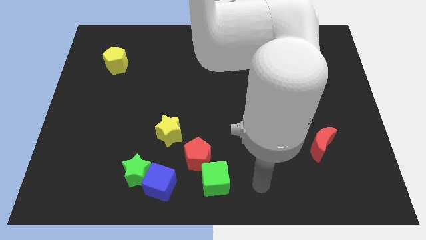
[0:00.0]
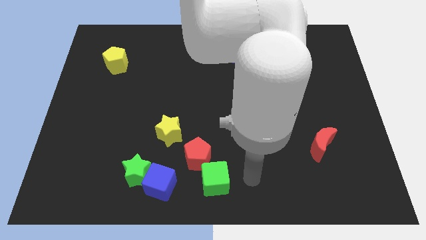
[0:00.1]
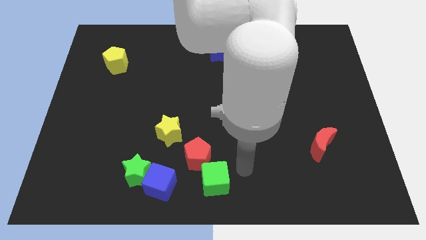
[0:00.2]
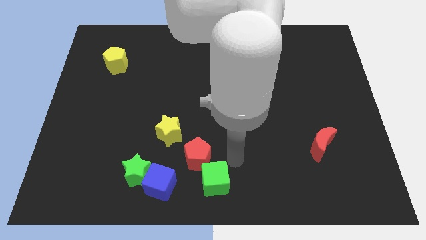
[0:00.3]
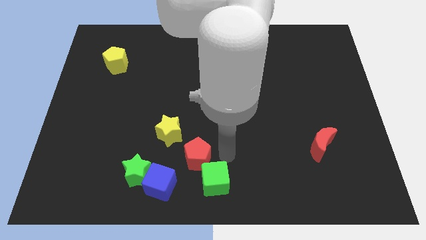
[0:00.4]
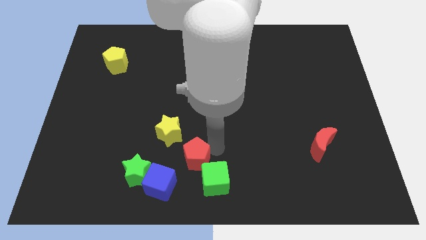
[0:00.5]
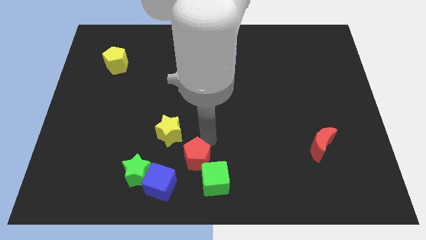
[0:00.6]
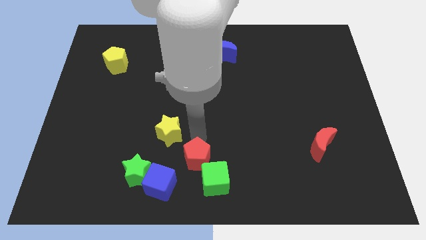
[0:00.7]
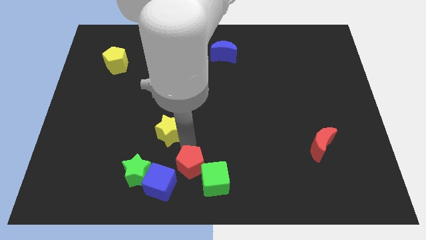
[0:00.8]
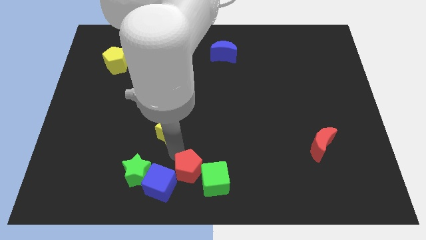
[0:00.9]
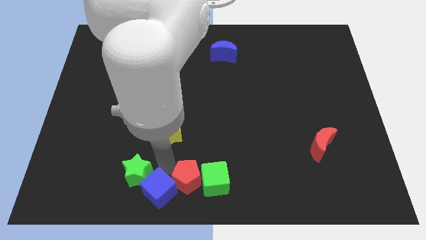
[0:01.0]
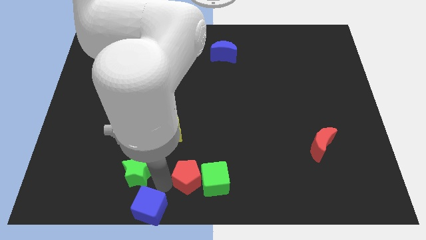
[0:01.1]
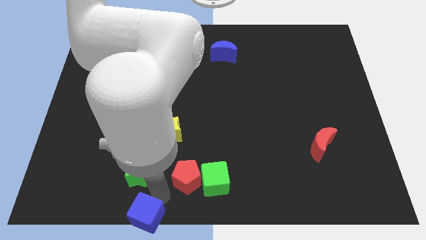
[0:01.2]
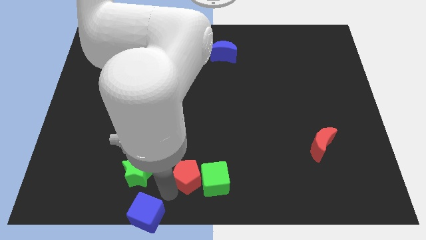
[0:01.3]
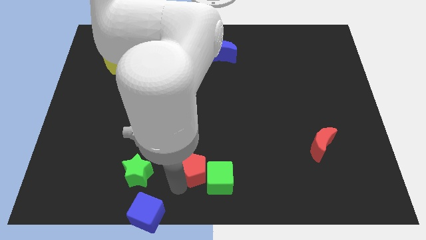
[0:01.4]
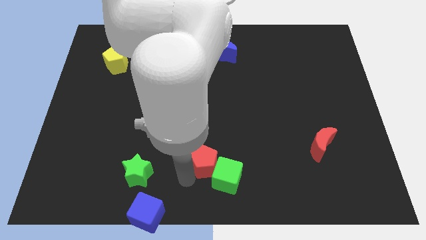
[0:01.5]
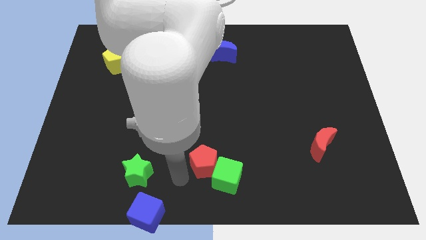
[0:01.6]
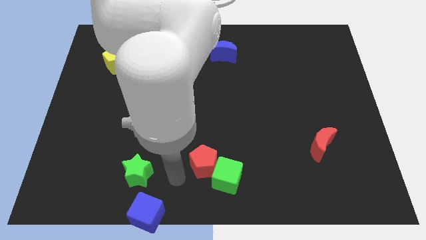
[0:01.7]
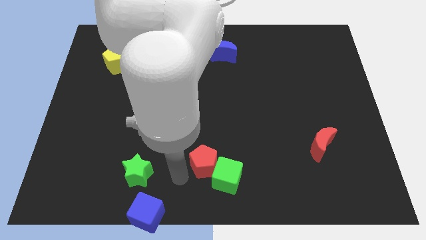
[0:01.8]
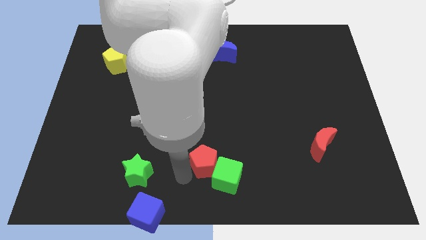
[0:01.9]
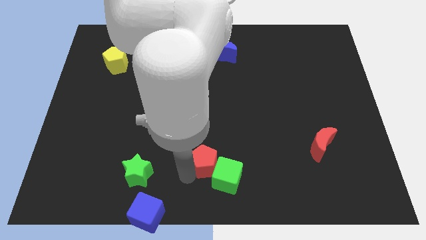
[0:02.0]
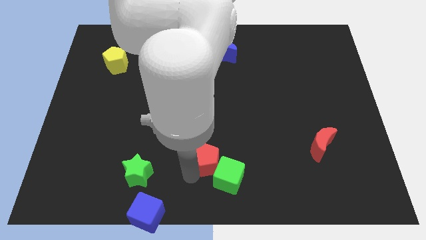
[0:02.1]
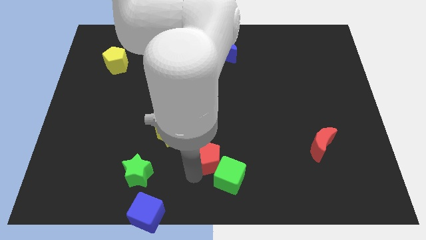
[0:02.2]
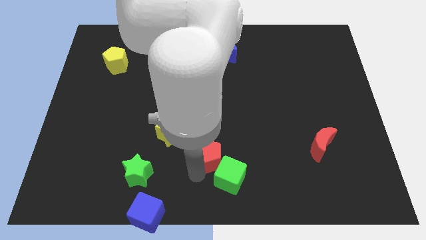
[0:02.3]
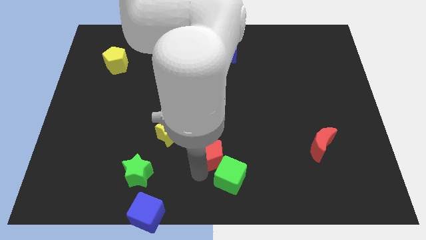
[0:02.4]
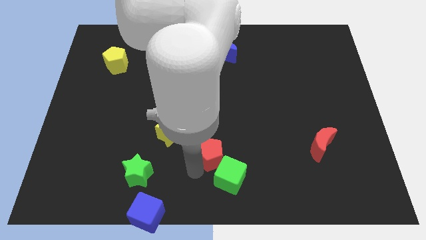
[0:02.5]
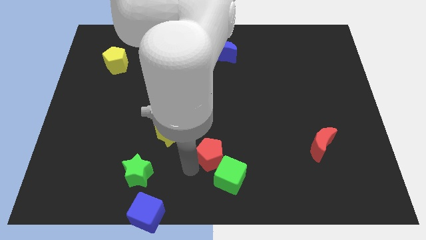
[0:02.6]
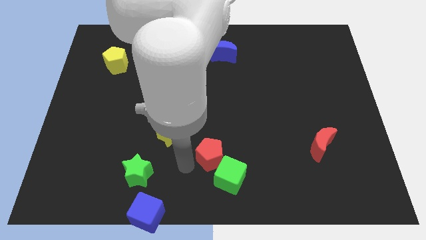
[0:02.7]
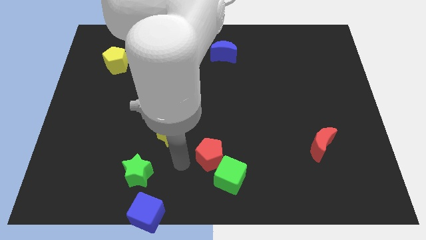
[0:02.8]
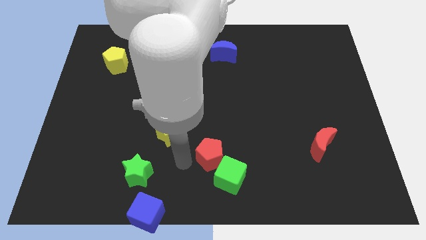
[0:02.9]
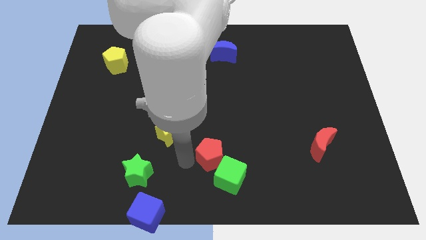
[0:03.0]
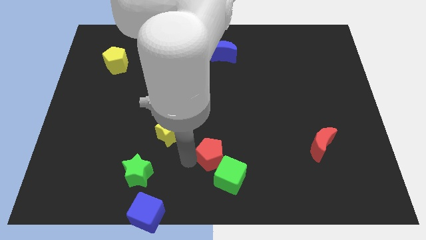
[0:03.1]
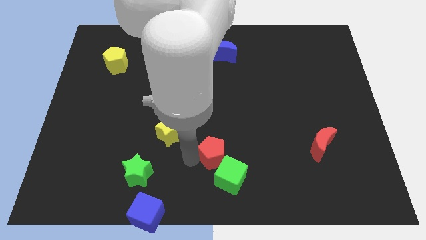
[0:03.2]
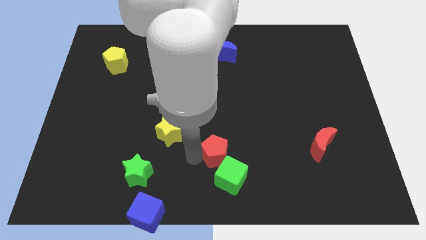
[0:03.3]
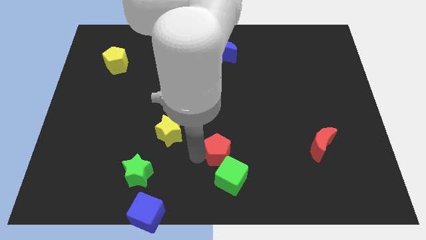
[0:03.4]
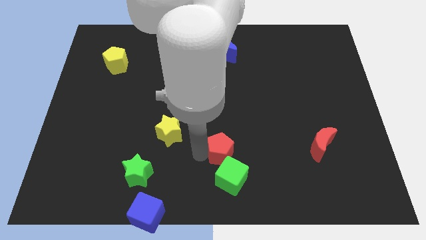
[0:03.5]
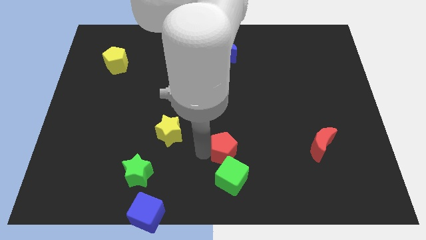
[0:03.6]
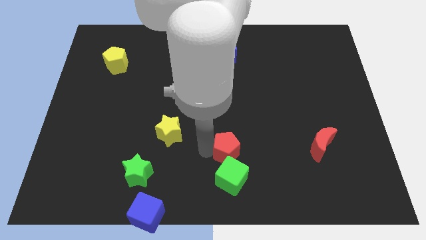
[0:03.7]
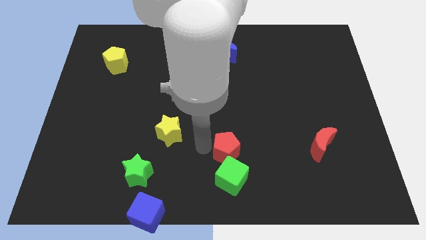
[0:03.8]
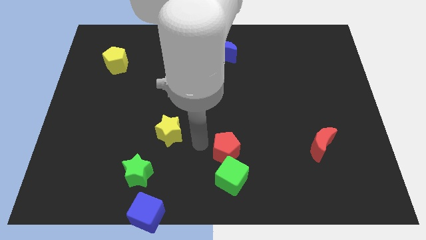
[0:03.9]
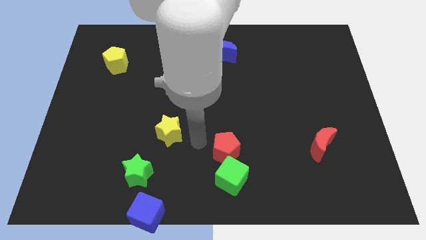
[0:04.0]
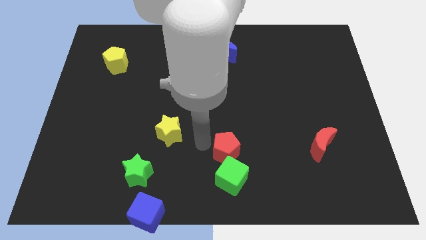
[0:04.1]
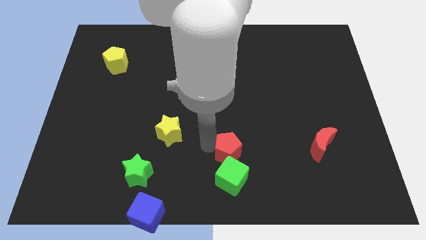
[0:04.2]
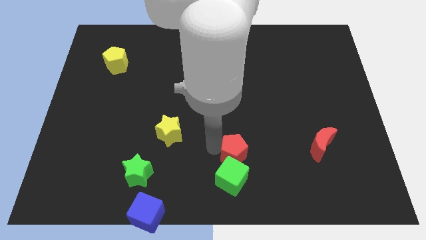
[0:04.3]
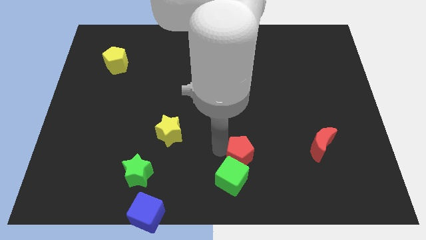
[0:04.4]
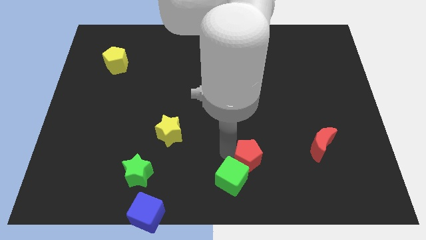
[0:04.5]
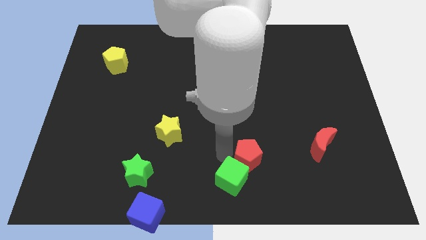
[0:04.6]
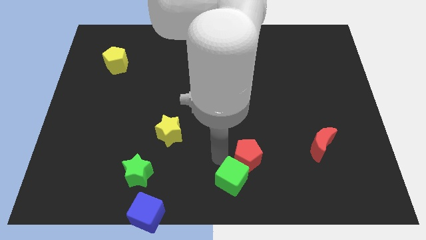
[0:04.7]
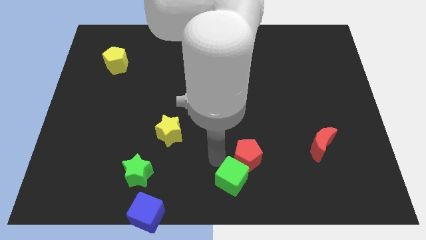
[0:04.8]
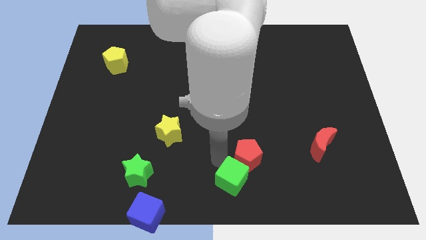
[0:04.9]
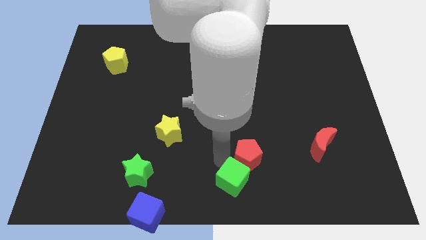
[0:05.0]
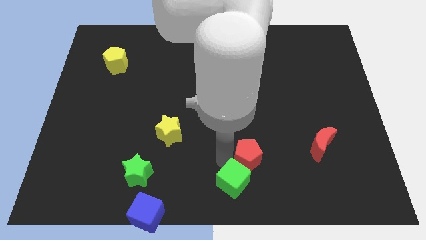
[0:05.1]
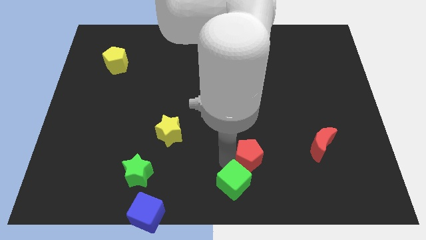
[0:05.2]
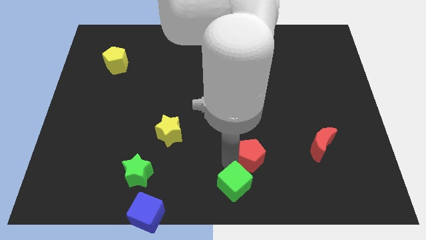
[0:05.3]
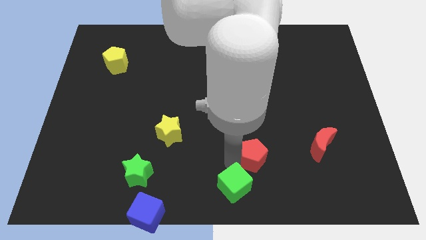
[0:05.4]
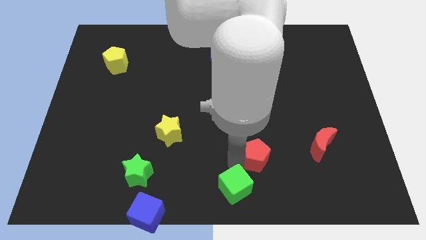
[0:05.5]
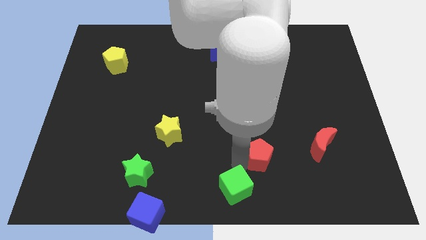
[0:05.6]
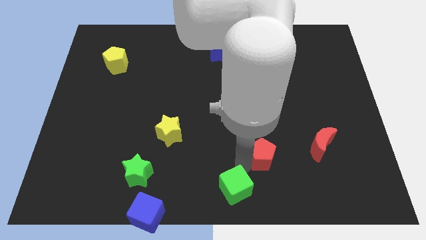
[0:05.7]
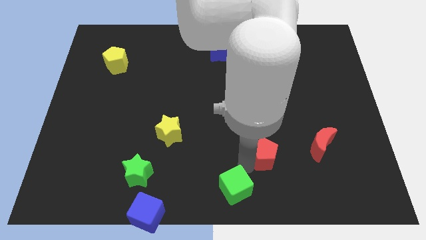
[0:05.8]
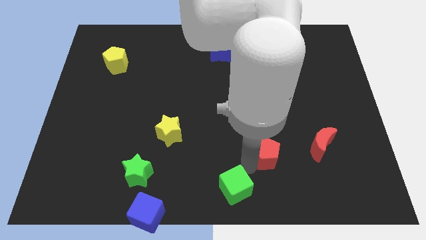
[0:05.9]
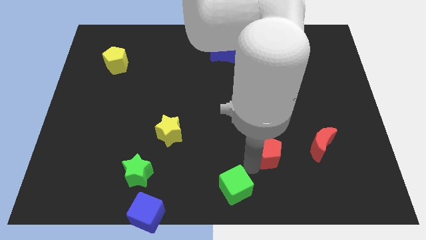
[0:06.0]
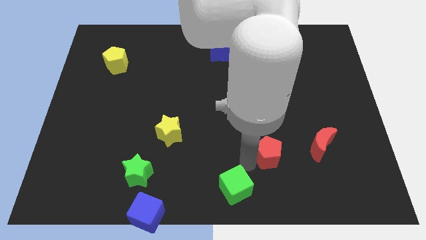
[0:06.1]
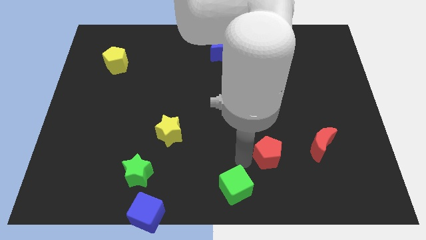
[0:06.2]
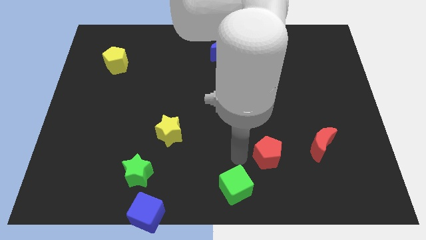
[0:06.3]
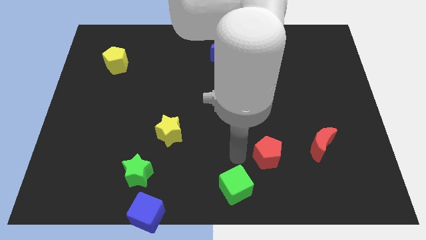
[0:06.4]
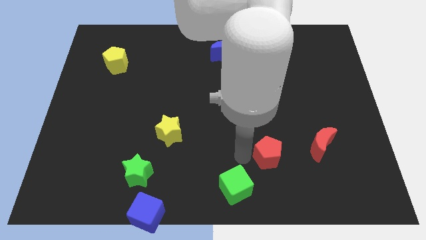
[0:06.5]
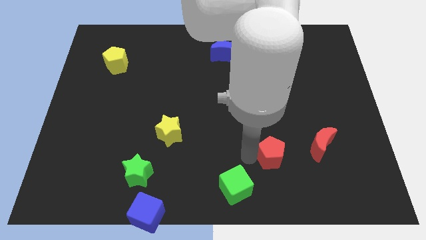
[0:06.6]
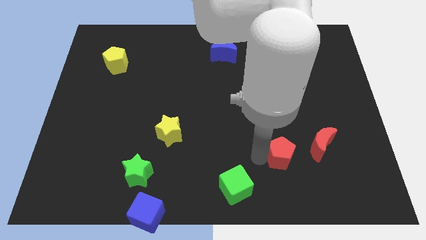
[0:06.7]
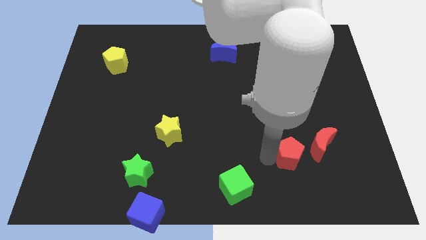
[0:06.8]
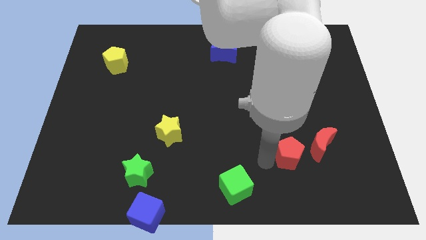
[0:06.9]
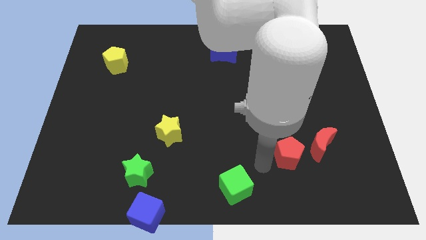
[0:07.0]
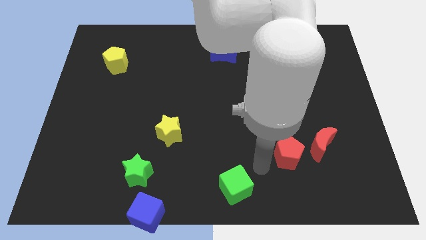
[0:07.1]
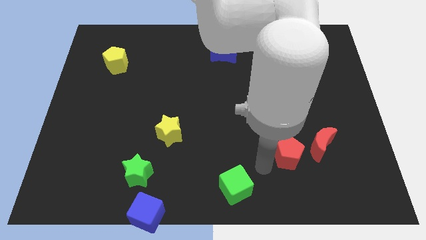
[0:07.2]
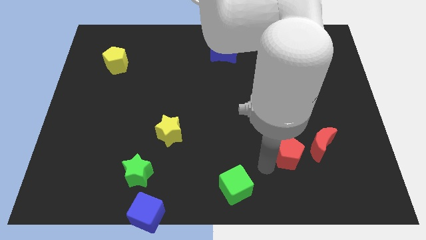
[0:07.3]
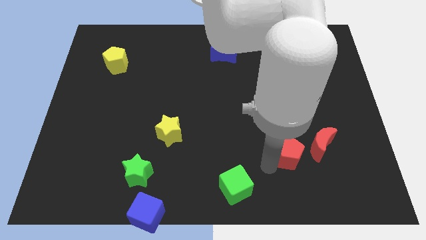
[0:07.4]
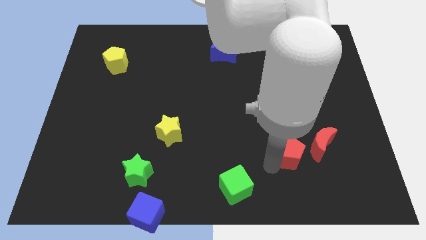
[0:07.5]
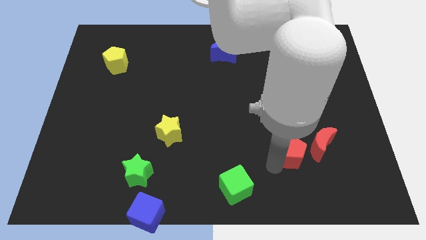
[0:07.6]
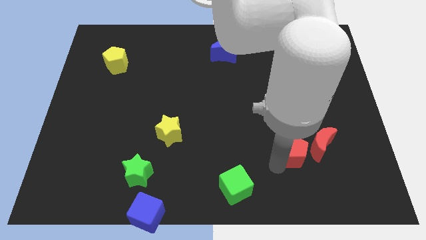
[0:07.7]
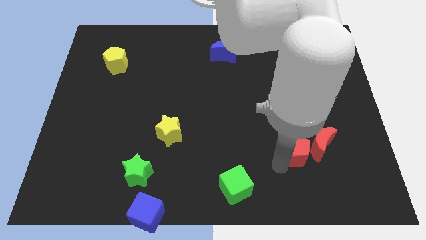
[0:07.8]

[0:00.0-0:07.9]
push the red pentagon next to the red moon
